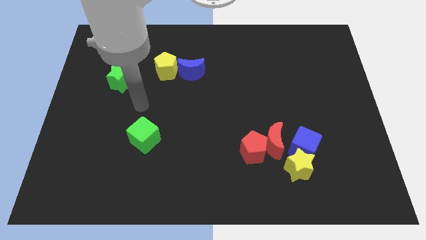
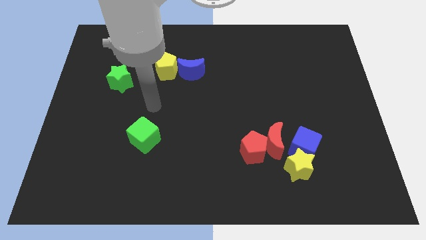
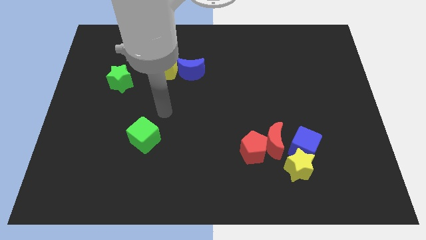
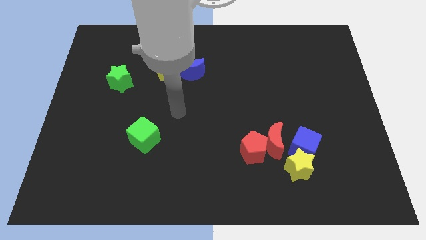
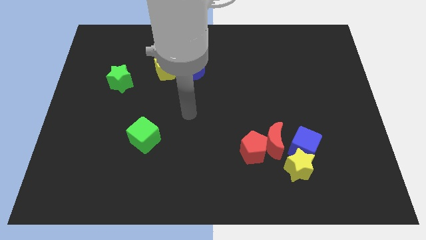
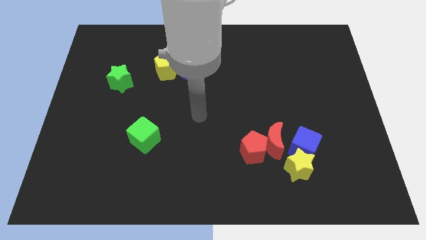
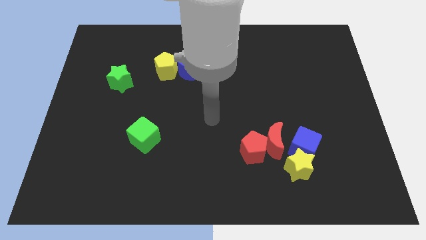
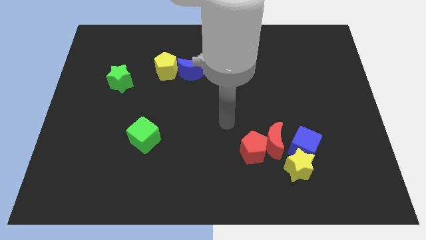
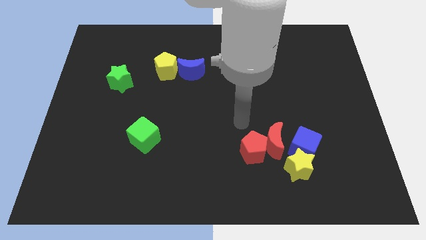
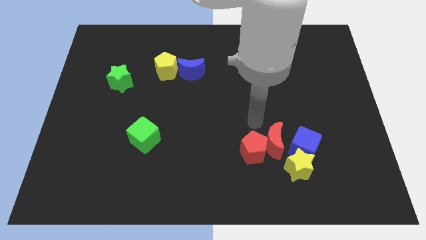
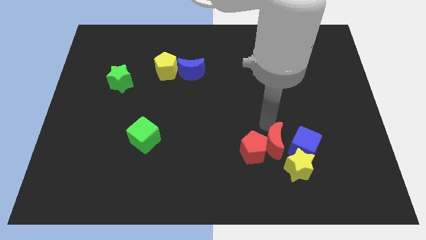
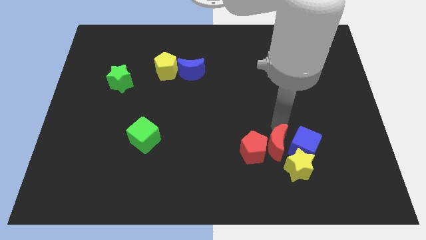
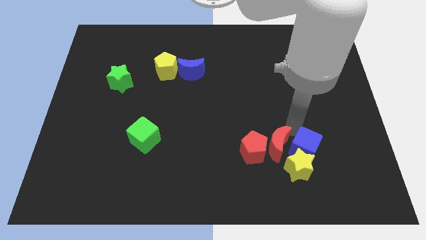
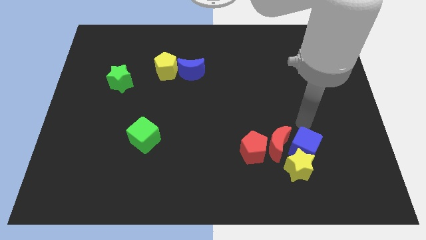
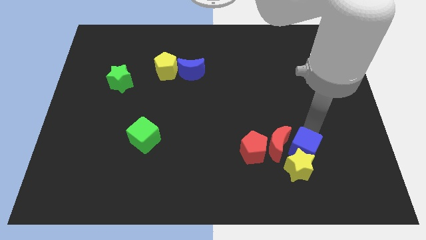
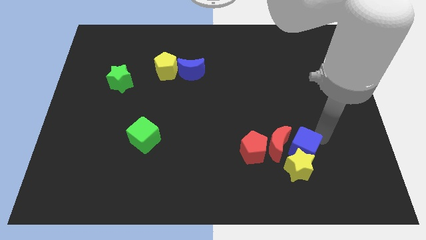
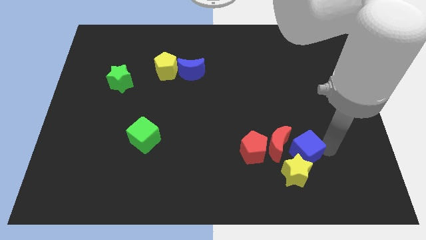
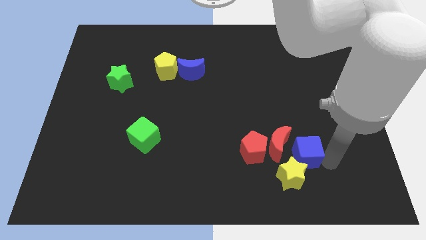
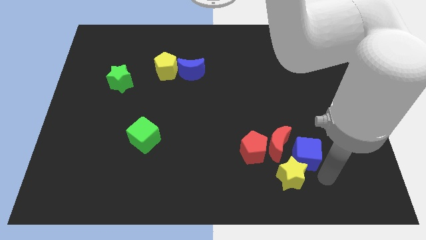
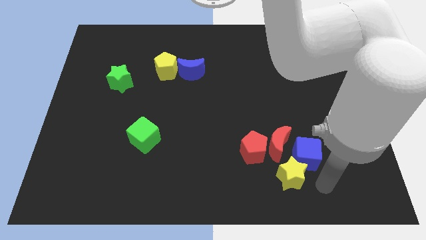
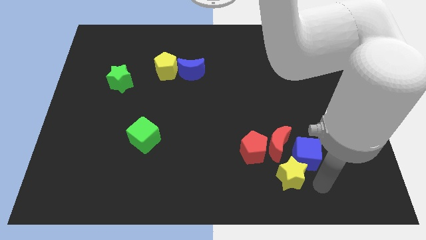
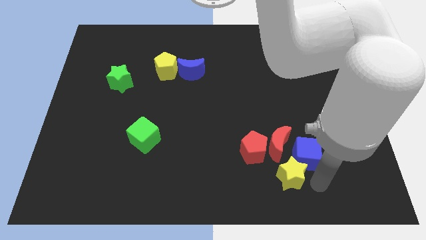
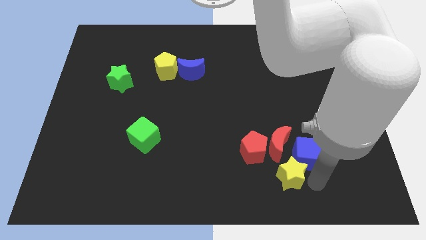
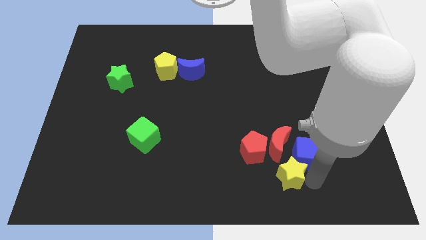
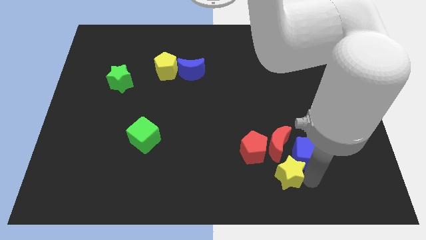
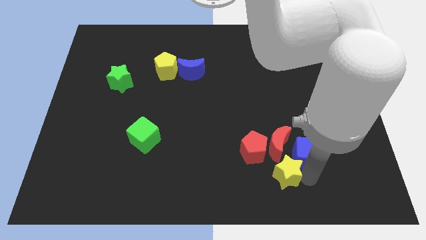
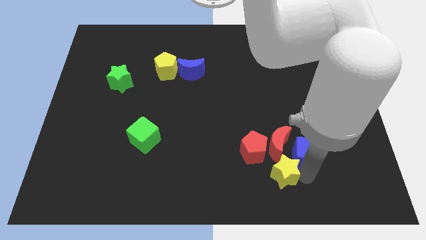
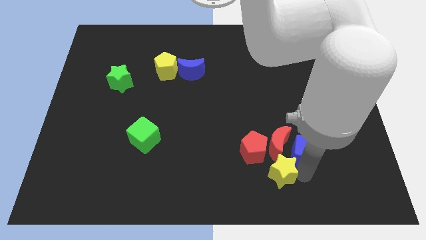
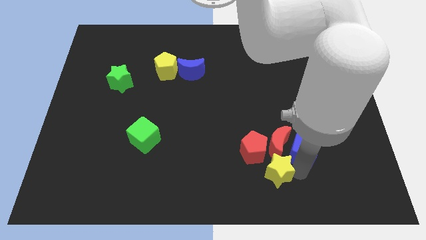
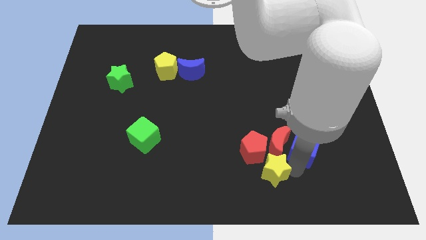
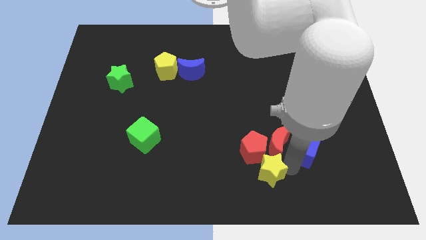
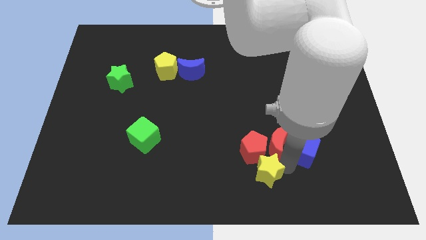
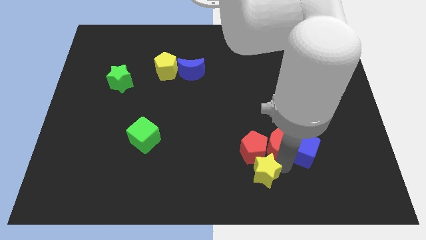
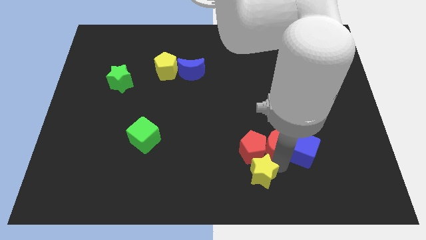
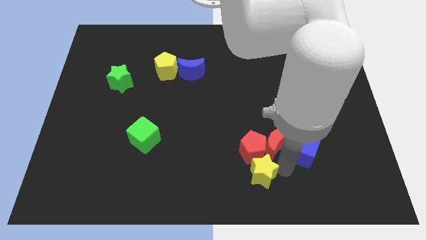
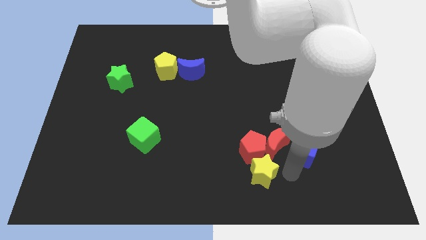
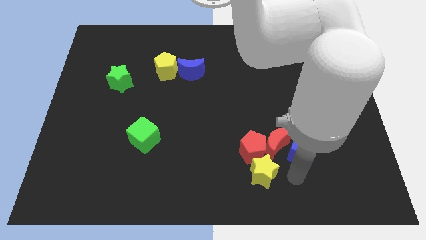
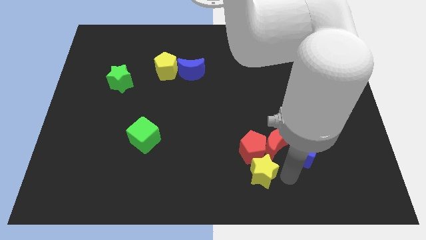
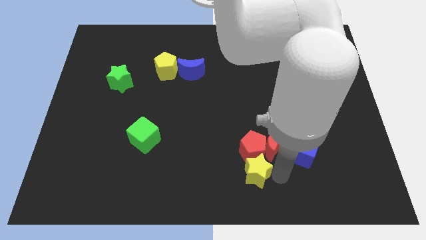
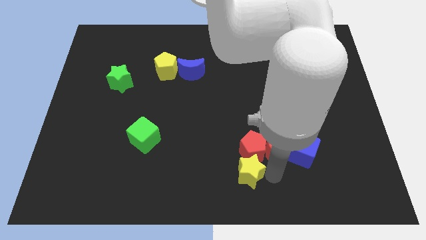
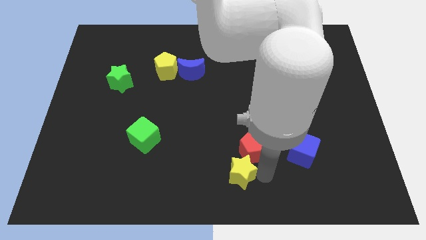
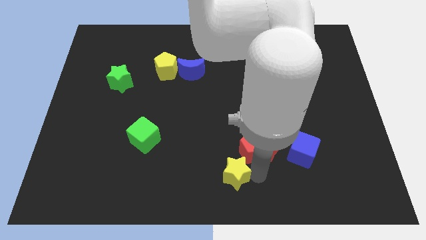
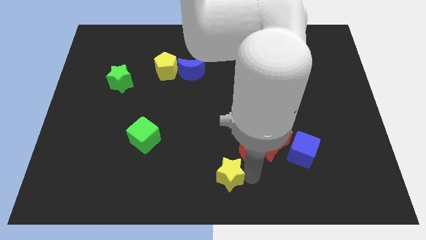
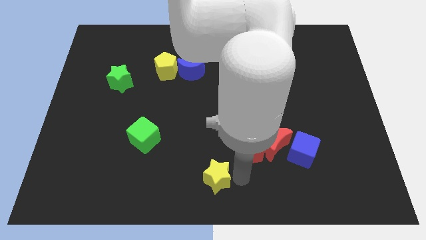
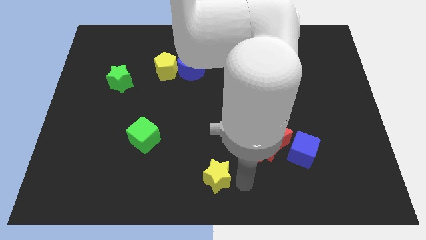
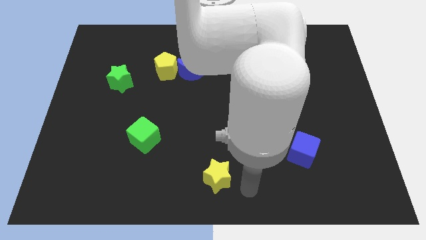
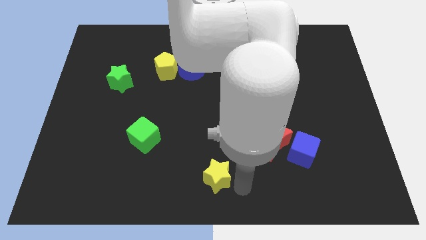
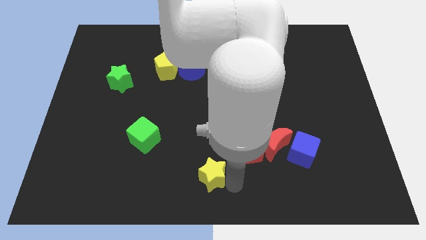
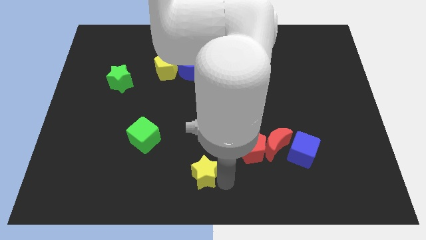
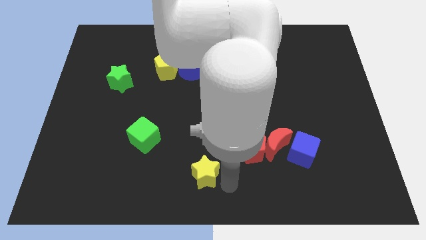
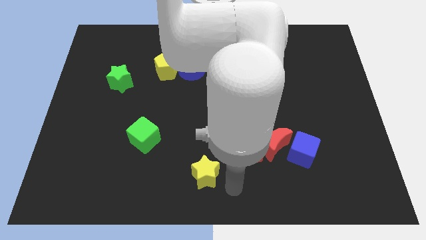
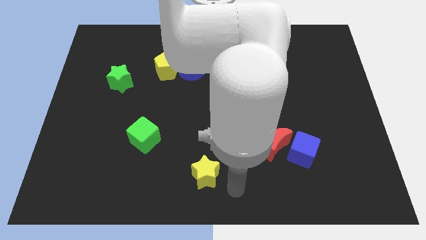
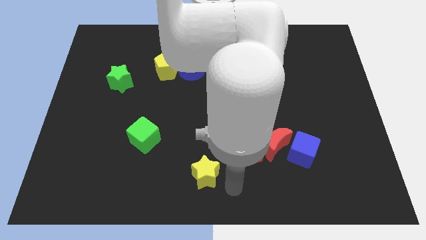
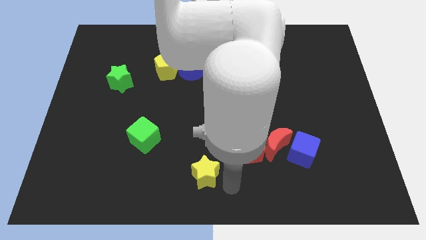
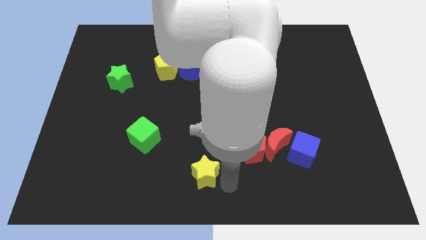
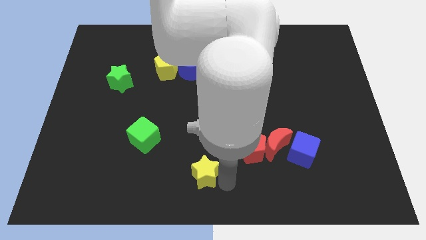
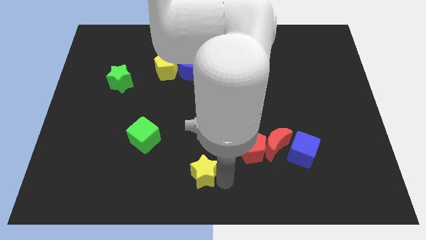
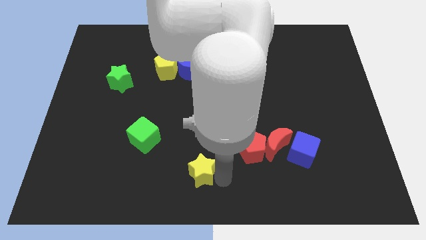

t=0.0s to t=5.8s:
slide the yellow star to the left

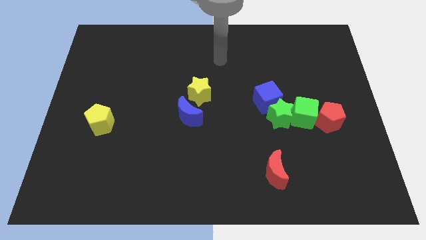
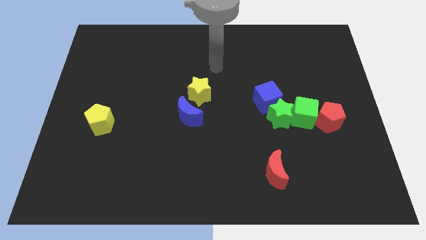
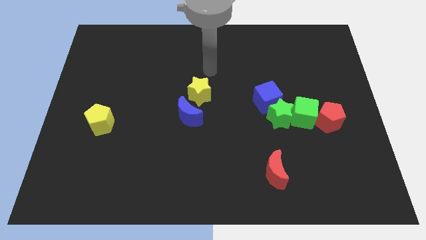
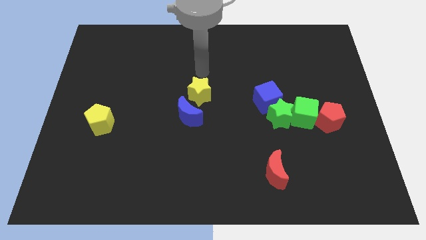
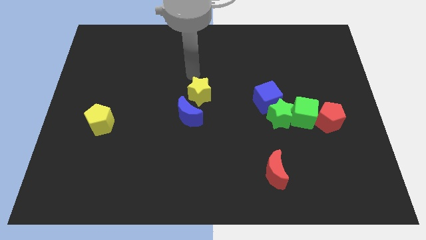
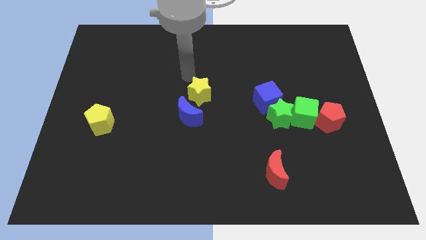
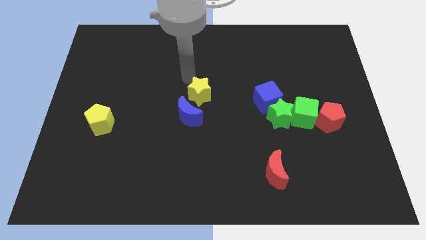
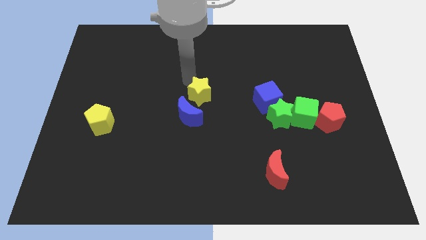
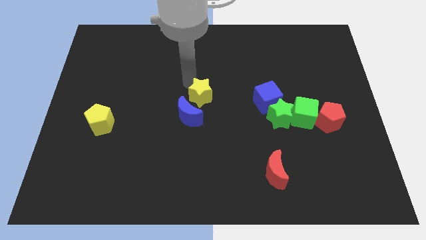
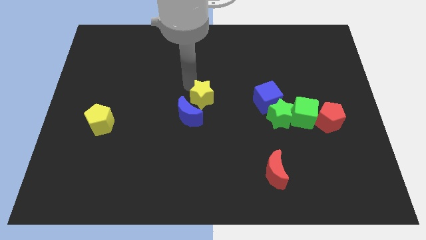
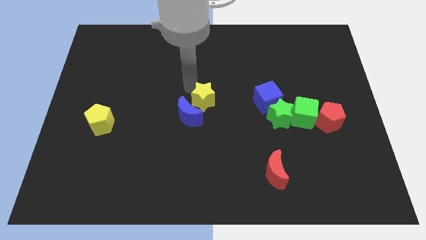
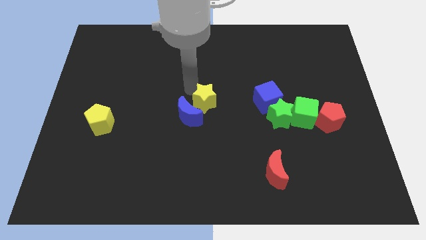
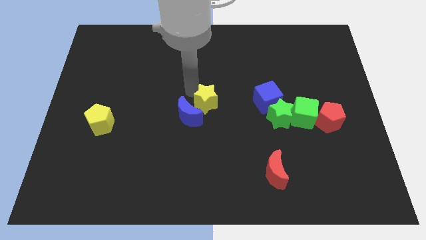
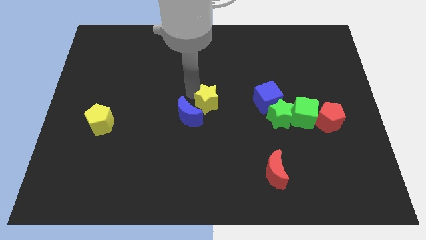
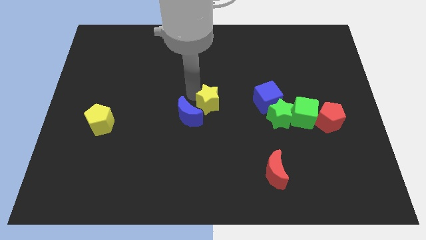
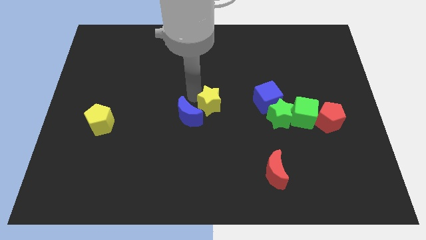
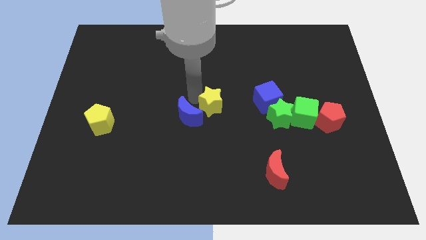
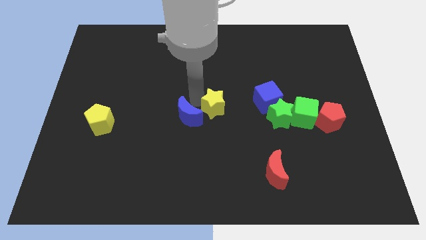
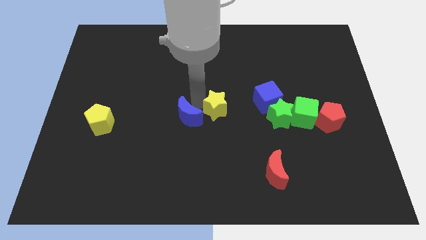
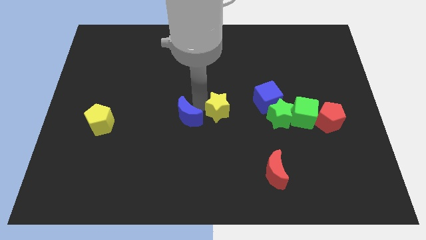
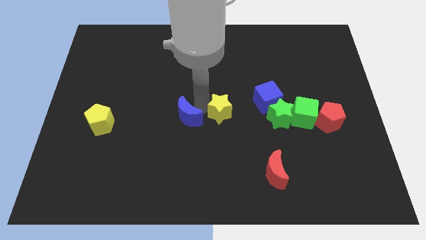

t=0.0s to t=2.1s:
move the yellow star downwards and to the right diagonally slightly

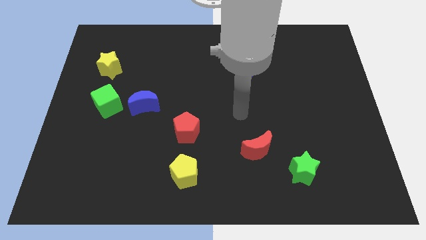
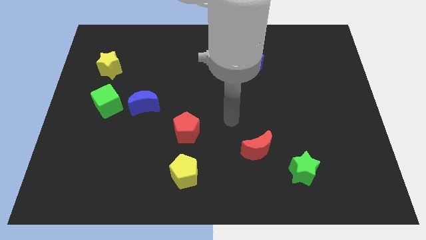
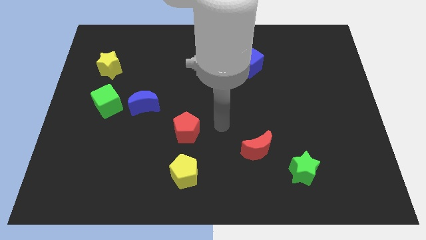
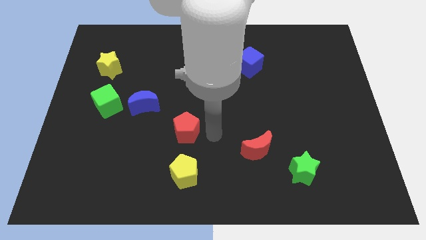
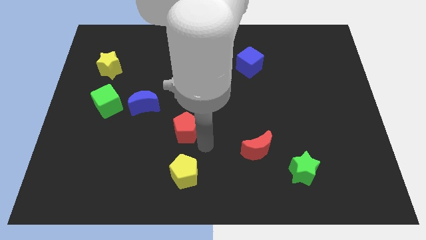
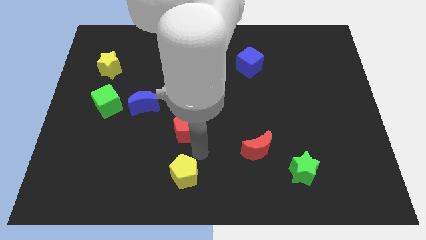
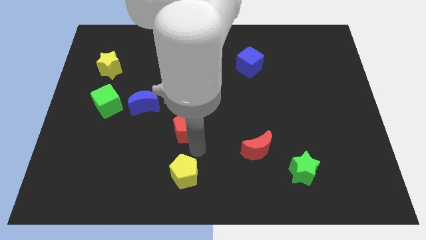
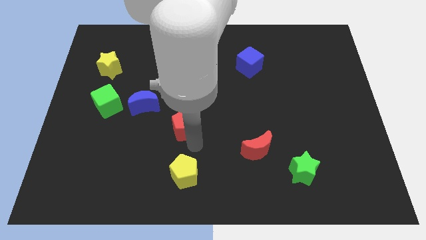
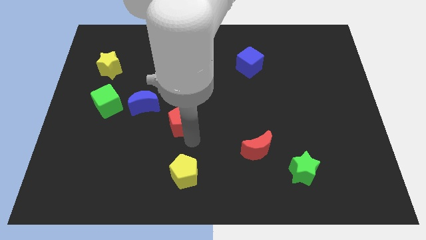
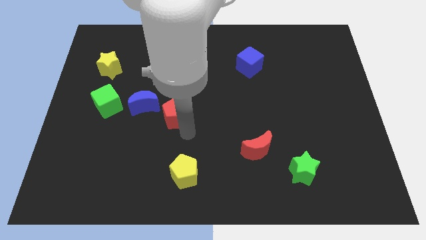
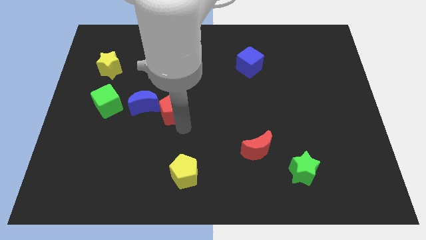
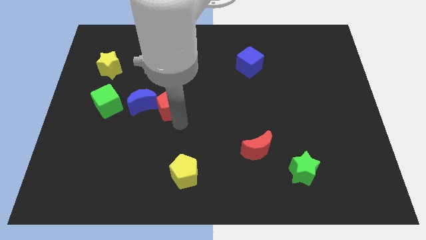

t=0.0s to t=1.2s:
slide the red pentagon upwards and left diagonally a little bit
